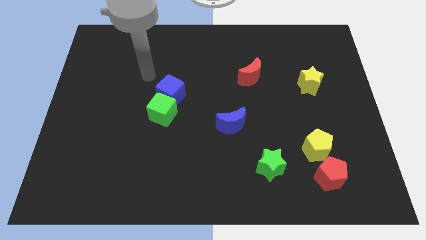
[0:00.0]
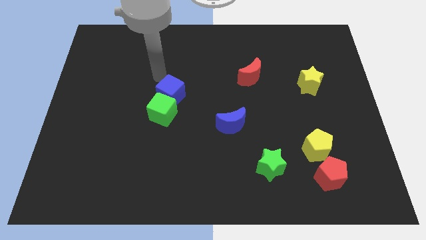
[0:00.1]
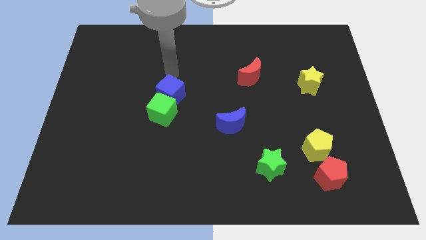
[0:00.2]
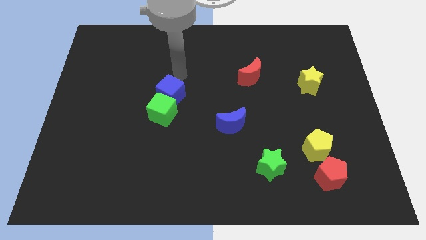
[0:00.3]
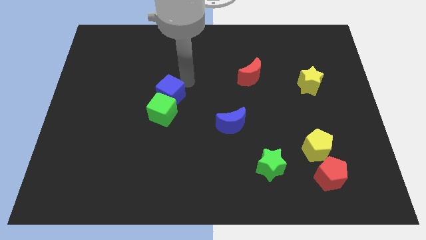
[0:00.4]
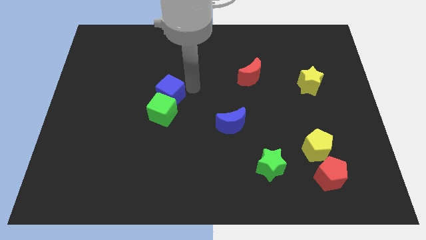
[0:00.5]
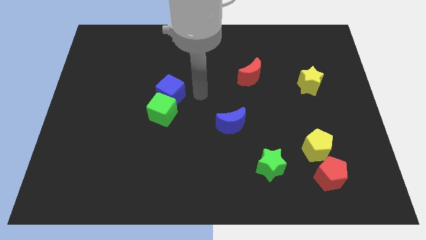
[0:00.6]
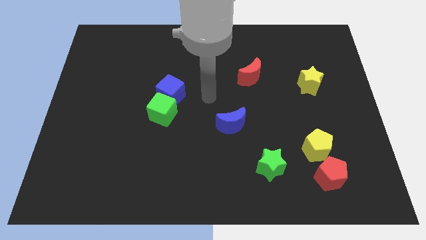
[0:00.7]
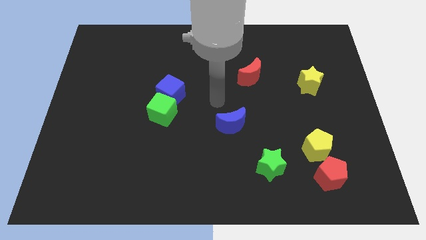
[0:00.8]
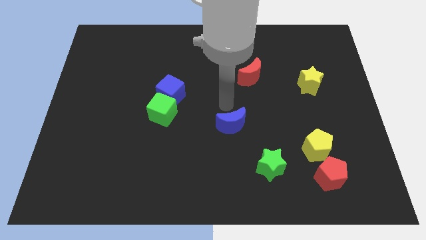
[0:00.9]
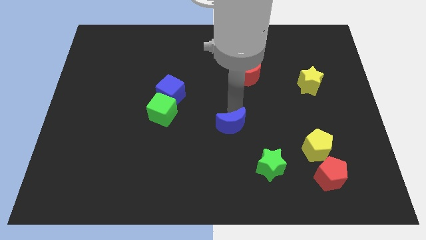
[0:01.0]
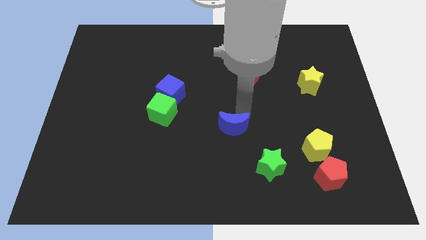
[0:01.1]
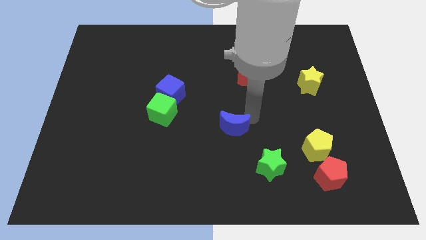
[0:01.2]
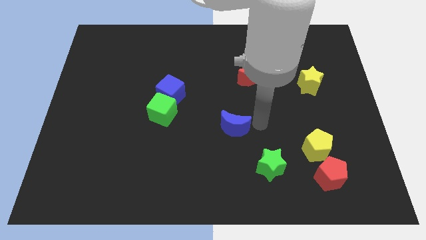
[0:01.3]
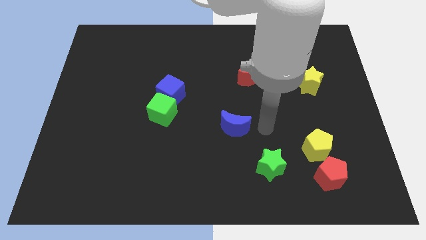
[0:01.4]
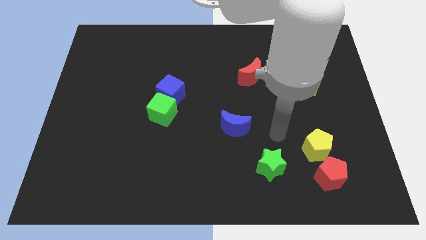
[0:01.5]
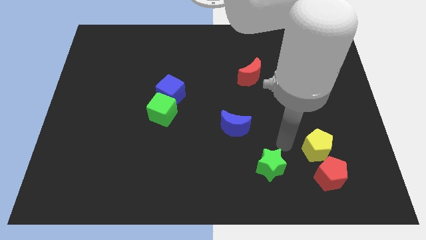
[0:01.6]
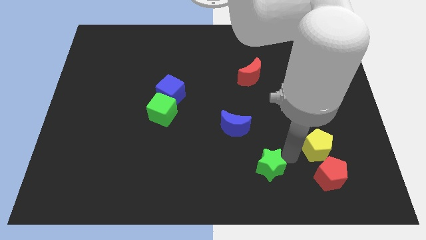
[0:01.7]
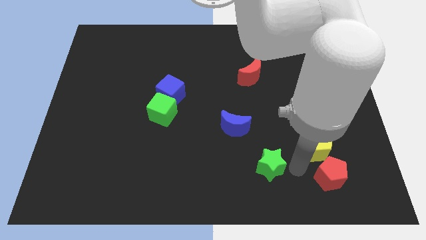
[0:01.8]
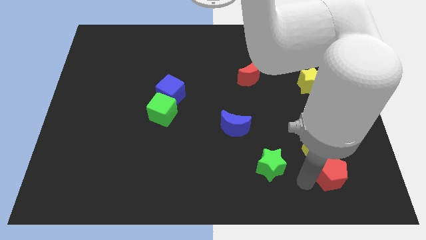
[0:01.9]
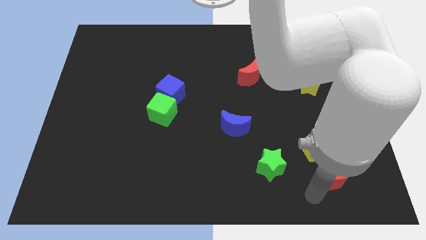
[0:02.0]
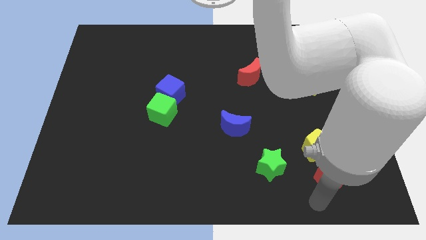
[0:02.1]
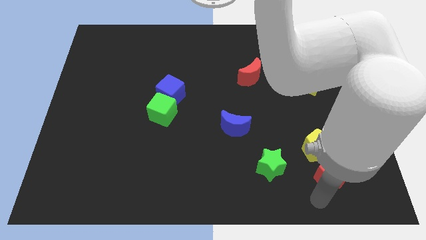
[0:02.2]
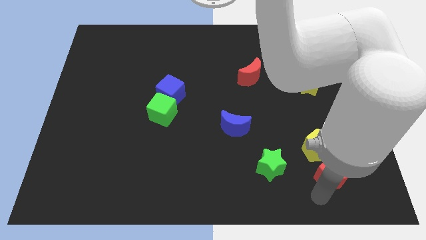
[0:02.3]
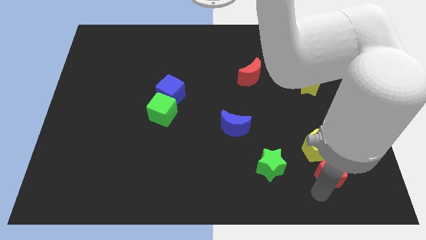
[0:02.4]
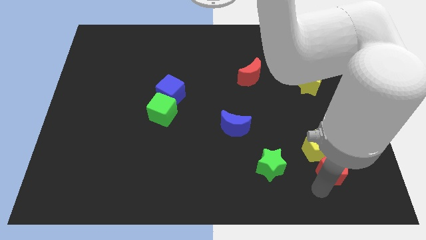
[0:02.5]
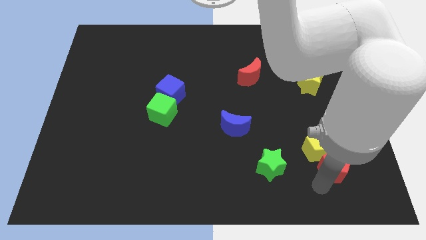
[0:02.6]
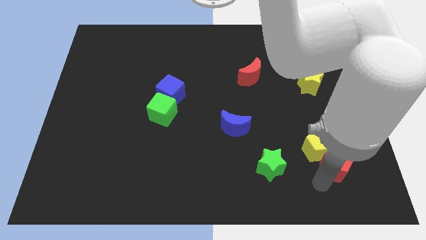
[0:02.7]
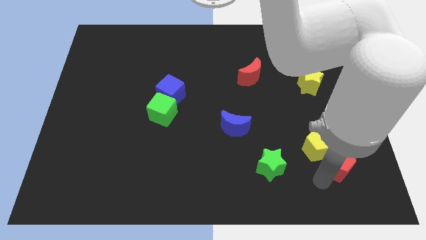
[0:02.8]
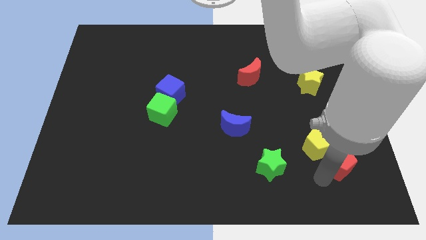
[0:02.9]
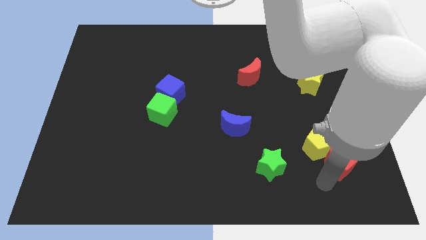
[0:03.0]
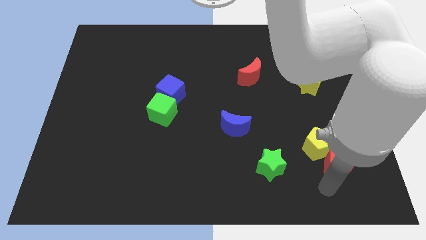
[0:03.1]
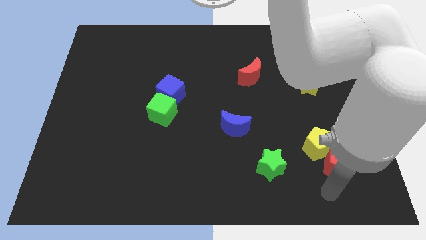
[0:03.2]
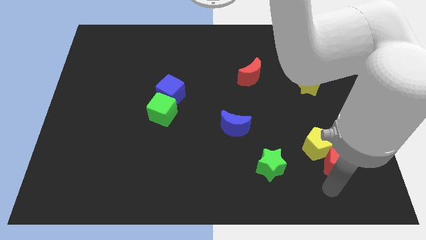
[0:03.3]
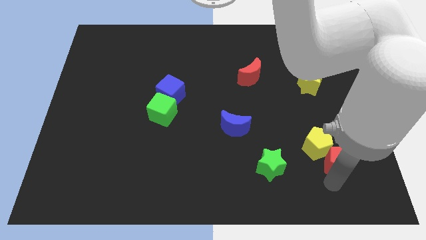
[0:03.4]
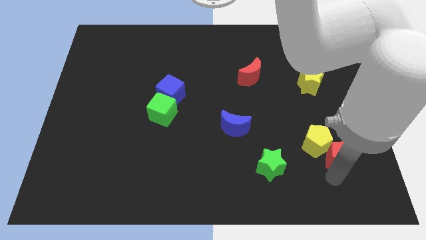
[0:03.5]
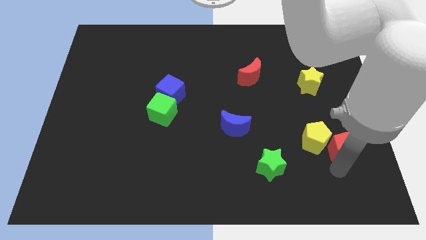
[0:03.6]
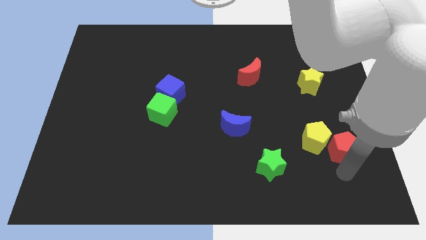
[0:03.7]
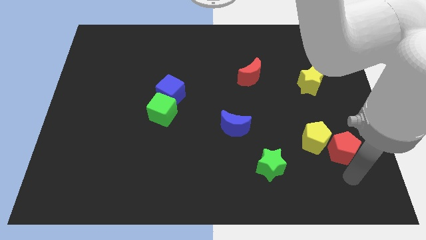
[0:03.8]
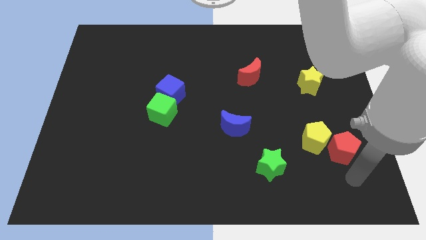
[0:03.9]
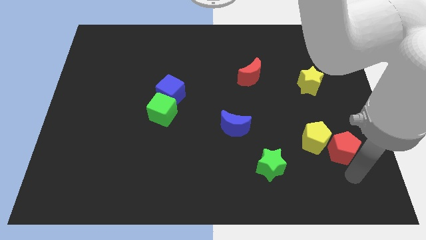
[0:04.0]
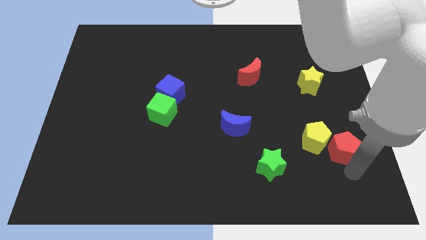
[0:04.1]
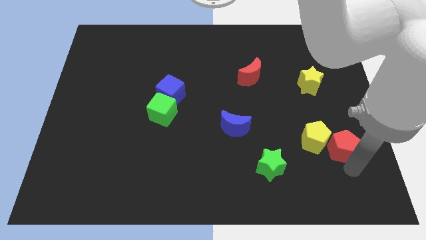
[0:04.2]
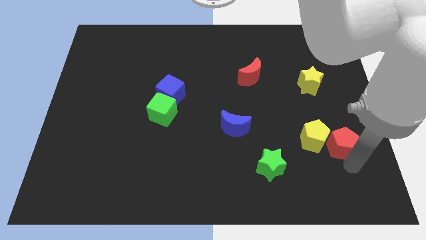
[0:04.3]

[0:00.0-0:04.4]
push the red pentagon upwards a bit

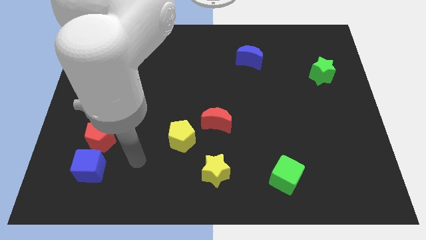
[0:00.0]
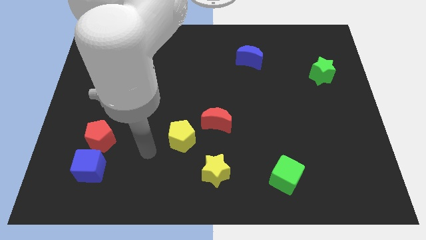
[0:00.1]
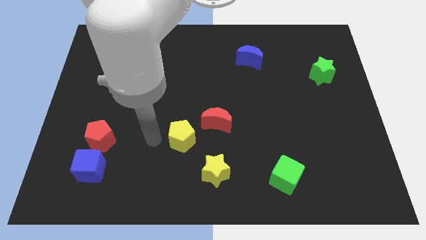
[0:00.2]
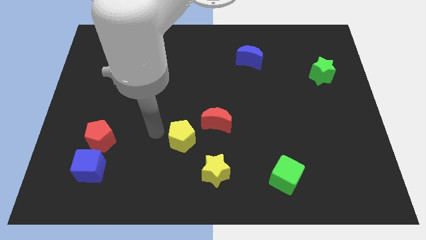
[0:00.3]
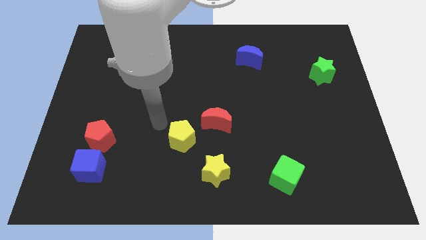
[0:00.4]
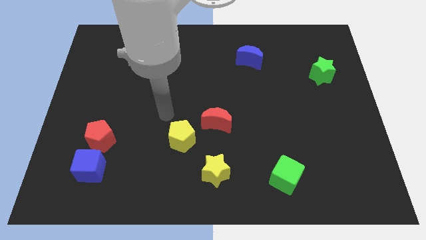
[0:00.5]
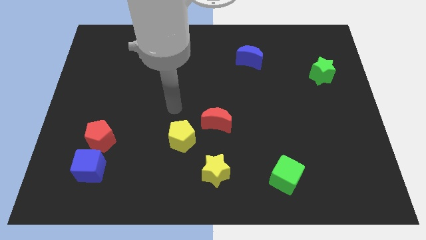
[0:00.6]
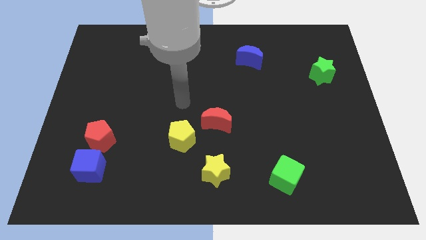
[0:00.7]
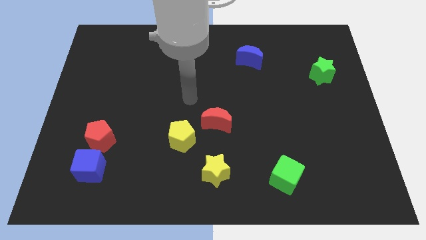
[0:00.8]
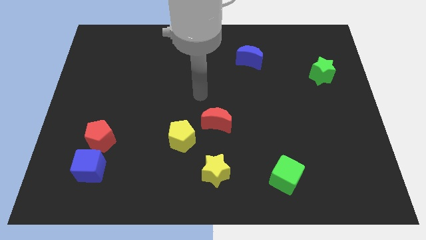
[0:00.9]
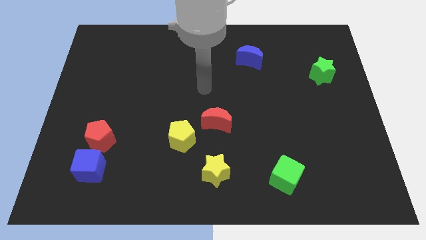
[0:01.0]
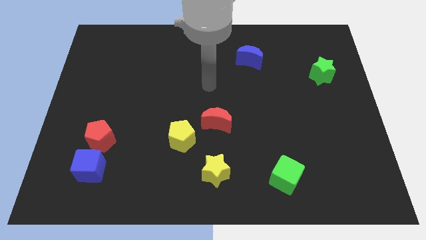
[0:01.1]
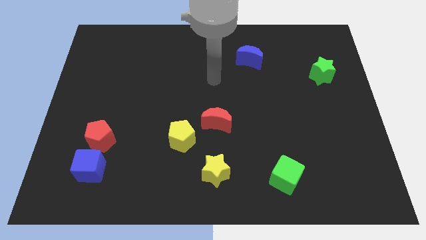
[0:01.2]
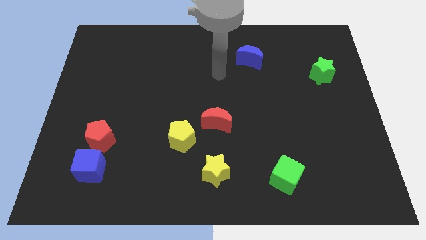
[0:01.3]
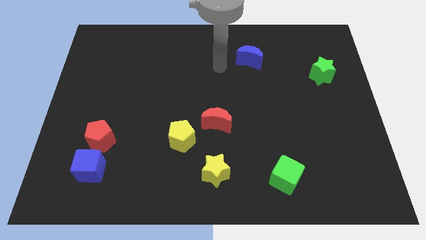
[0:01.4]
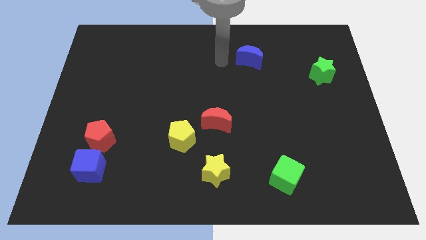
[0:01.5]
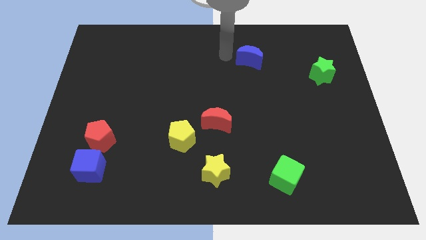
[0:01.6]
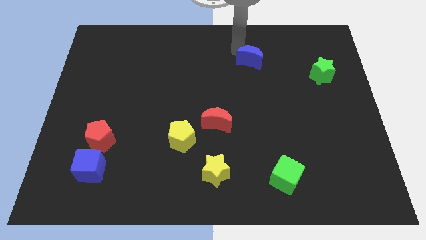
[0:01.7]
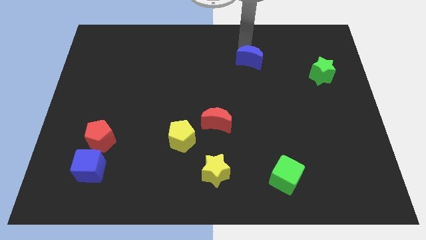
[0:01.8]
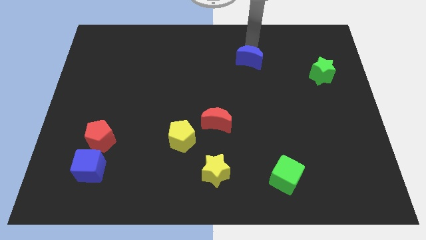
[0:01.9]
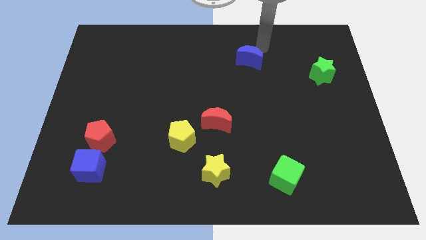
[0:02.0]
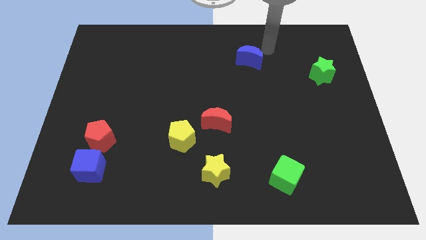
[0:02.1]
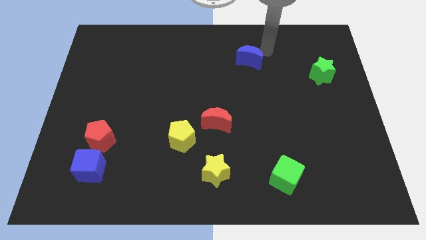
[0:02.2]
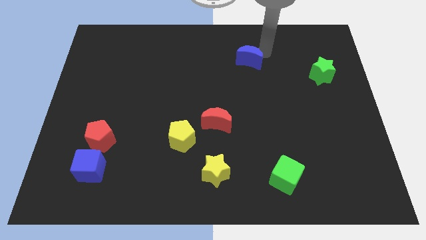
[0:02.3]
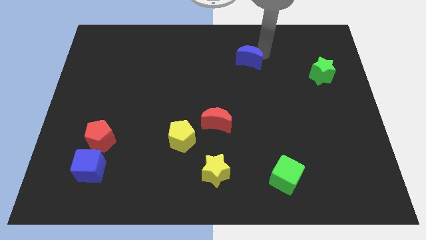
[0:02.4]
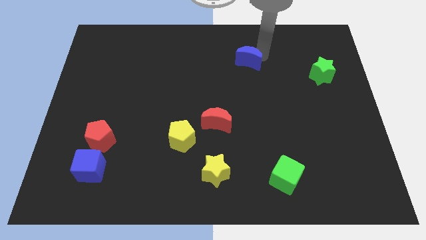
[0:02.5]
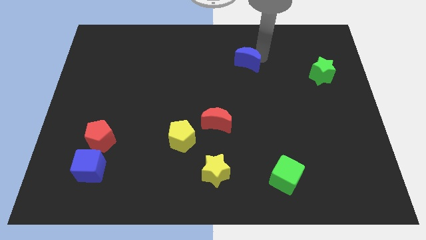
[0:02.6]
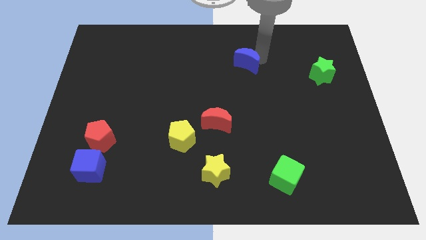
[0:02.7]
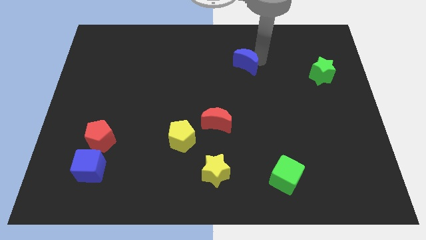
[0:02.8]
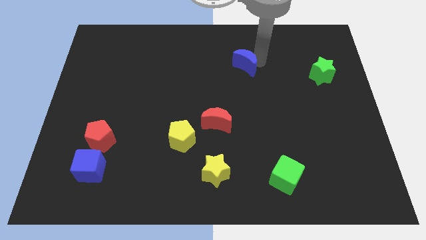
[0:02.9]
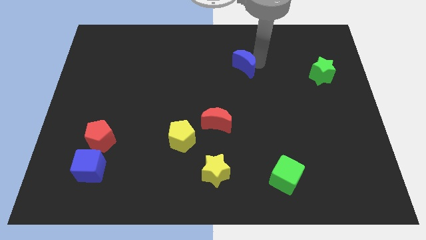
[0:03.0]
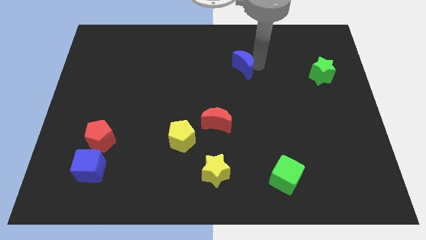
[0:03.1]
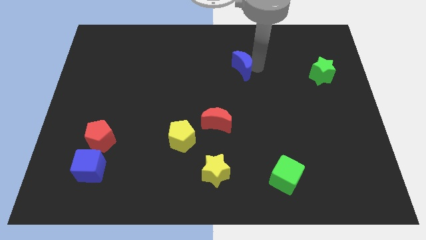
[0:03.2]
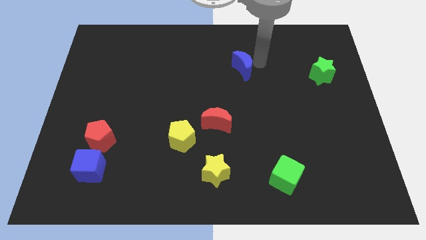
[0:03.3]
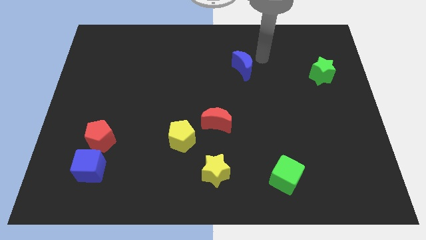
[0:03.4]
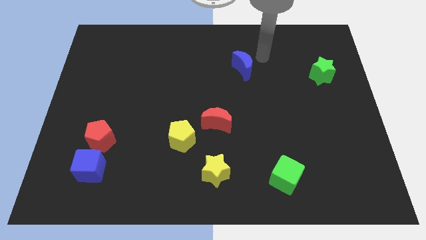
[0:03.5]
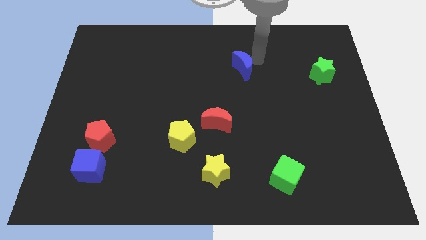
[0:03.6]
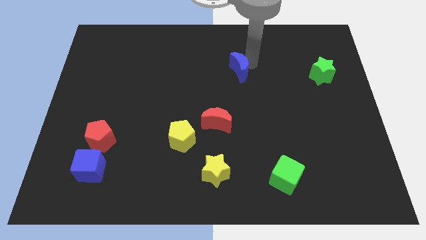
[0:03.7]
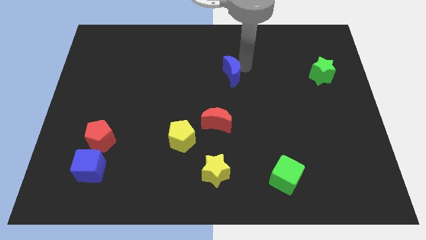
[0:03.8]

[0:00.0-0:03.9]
slide the blue moon a little downwards and then to the left
